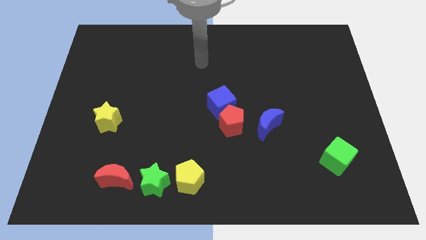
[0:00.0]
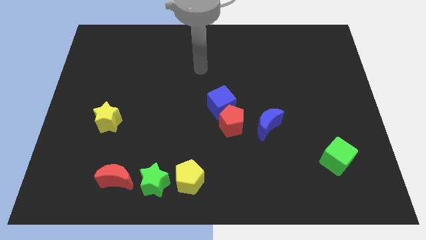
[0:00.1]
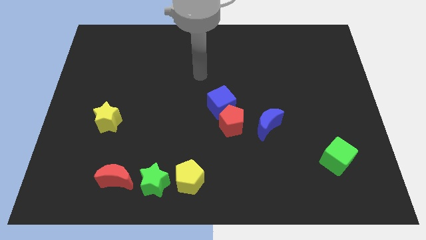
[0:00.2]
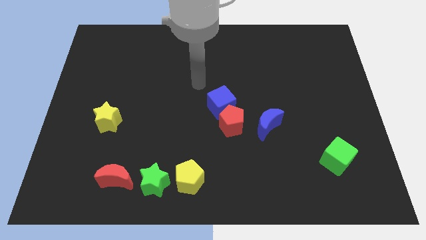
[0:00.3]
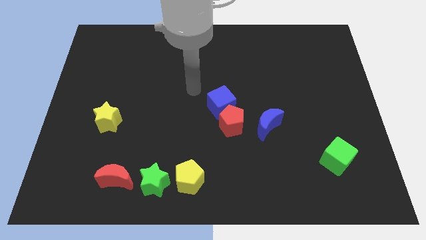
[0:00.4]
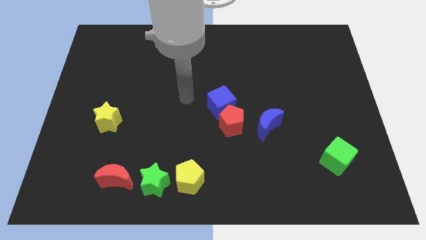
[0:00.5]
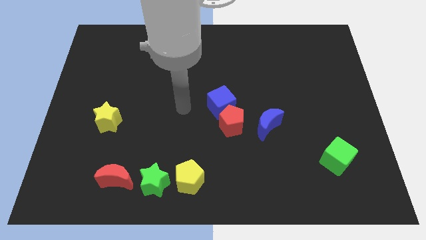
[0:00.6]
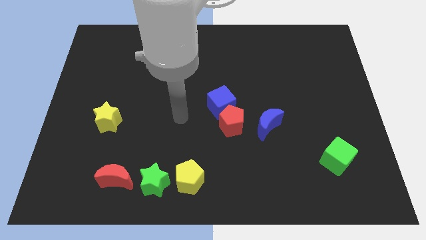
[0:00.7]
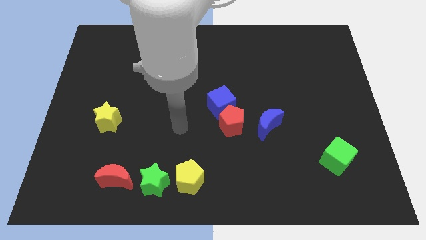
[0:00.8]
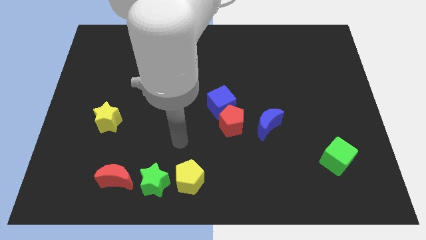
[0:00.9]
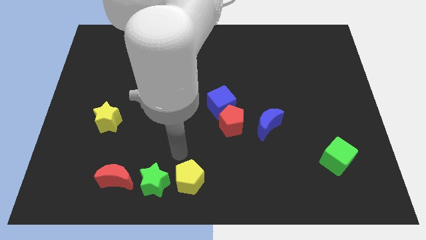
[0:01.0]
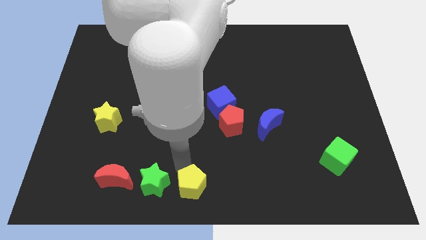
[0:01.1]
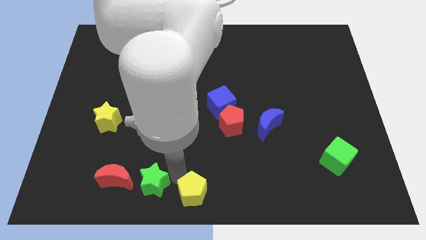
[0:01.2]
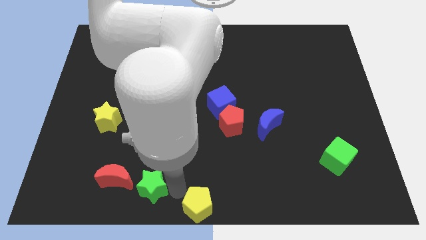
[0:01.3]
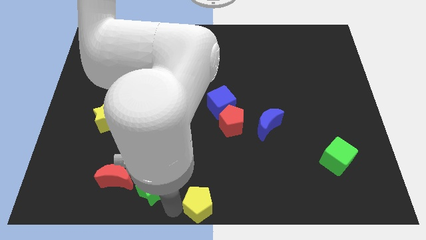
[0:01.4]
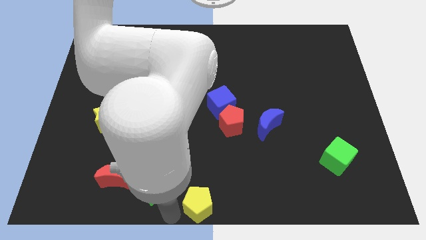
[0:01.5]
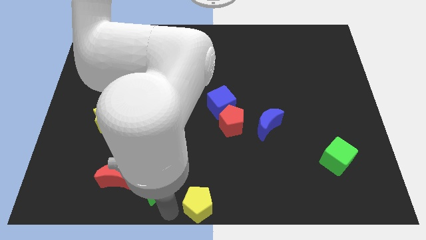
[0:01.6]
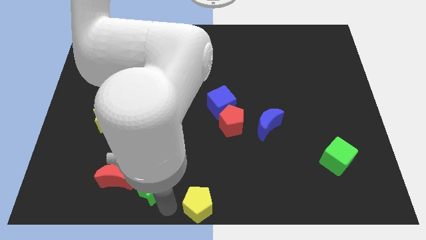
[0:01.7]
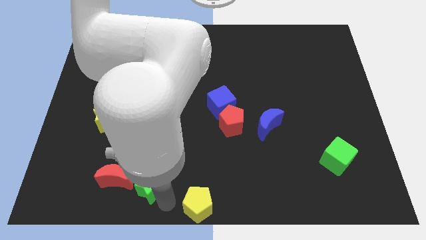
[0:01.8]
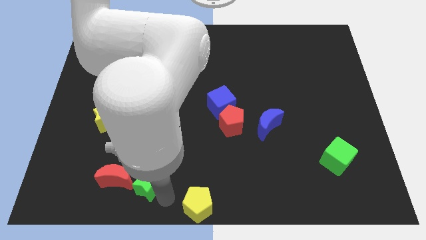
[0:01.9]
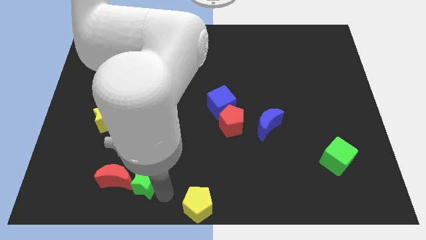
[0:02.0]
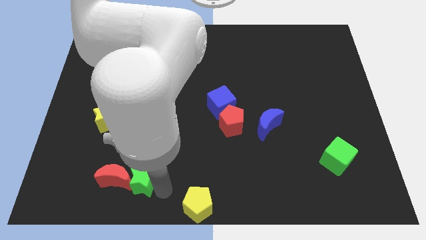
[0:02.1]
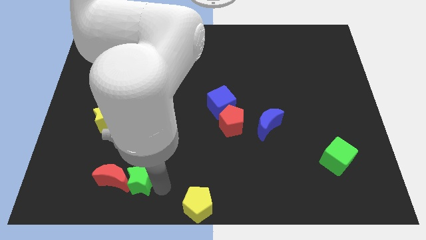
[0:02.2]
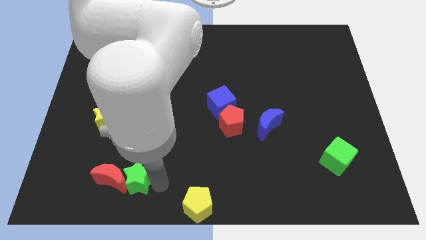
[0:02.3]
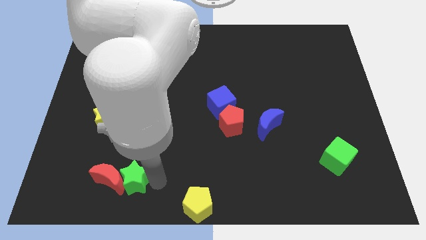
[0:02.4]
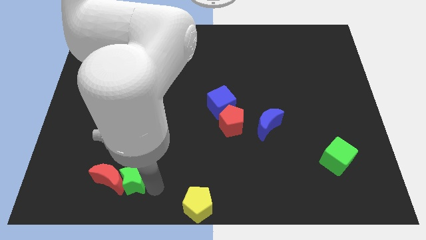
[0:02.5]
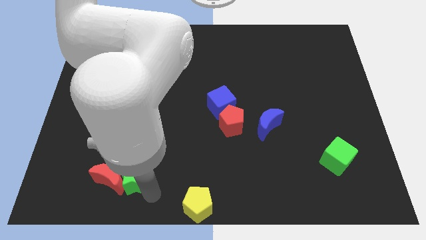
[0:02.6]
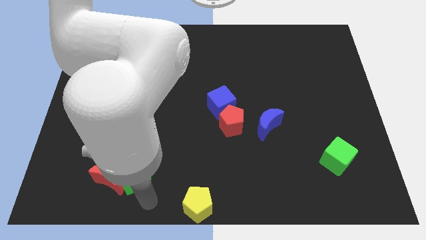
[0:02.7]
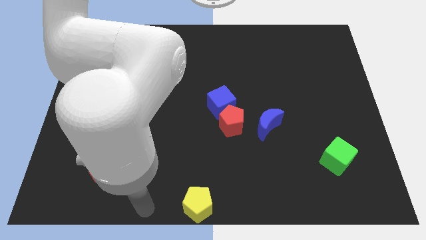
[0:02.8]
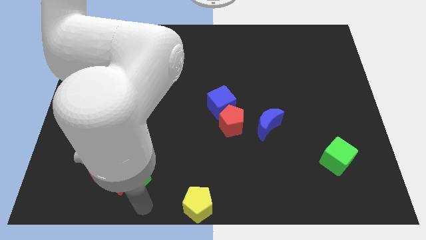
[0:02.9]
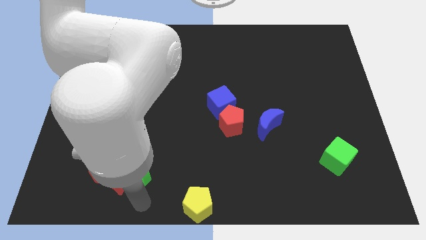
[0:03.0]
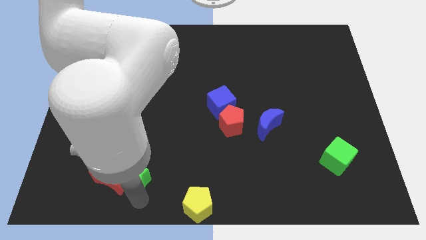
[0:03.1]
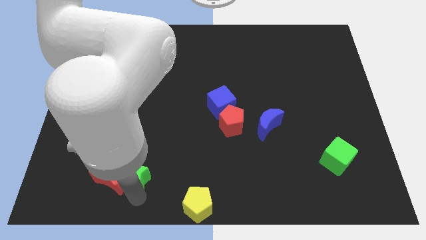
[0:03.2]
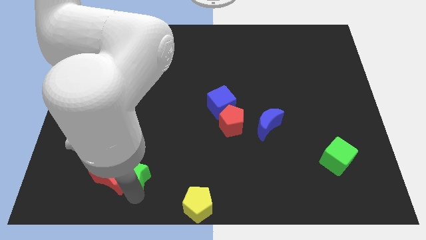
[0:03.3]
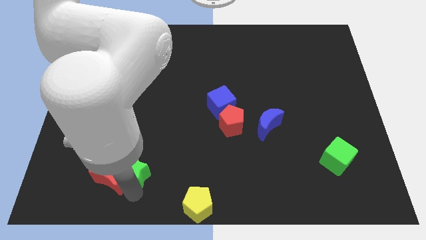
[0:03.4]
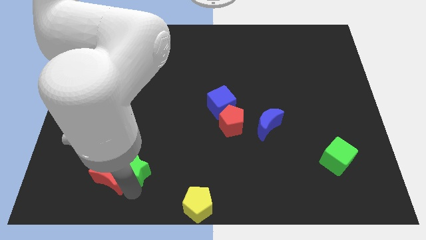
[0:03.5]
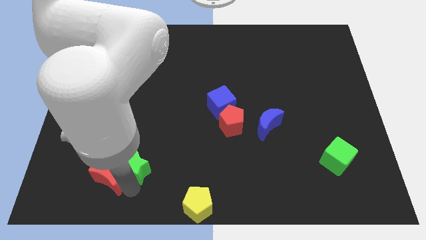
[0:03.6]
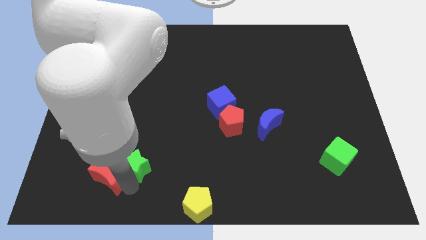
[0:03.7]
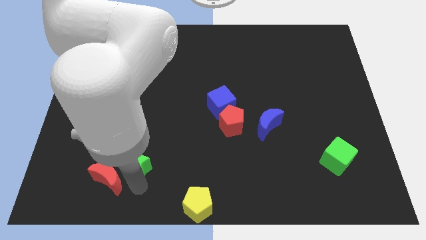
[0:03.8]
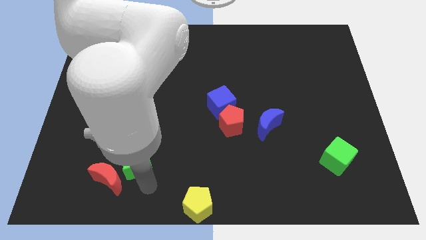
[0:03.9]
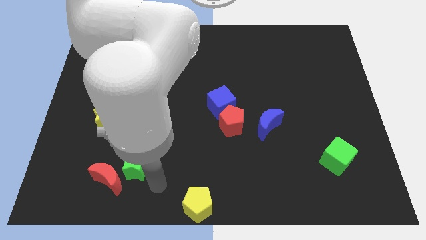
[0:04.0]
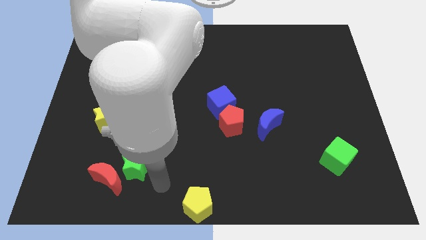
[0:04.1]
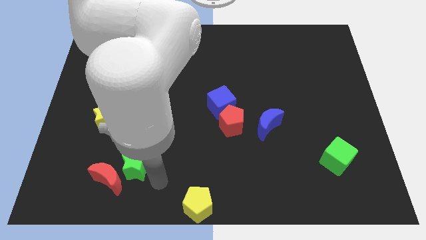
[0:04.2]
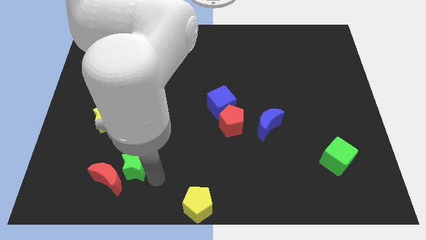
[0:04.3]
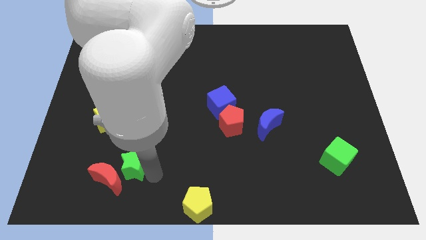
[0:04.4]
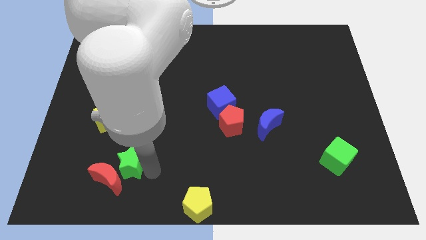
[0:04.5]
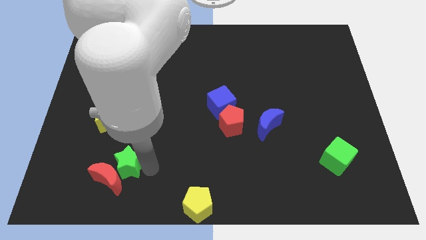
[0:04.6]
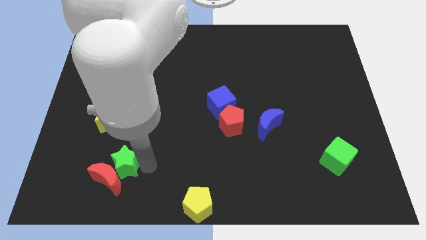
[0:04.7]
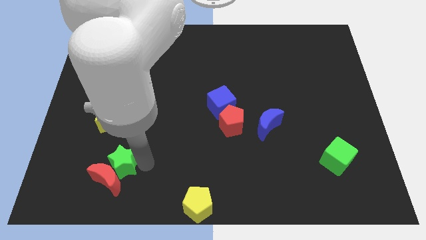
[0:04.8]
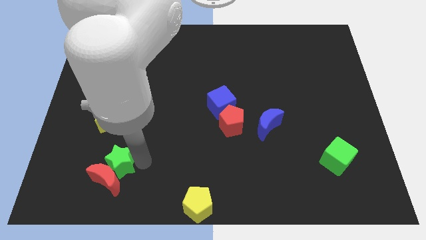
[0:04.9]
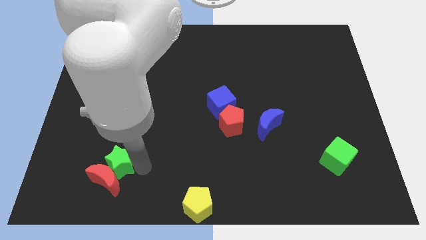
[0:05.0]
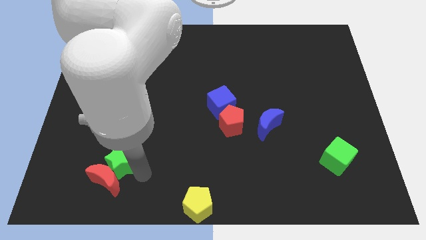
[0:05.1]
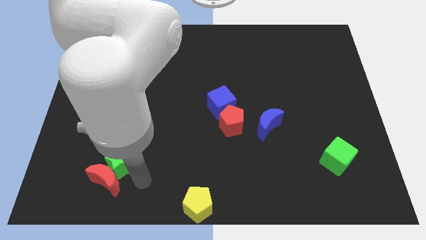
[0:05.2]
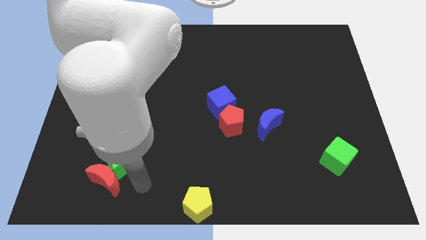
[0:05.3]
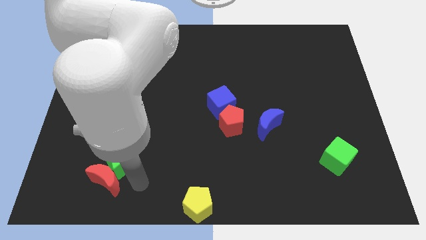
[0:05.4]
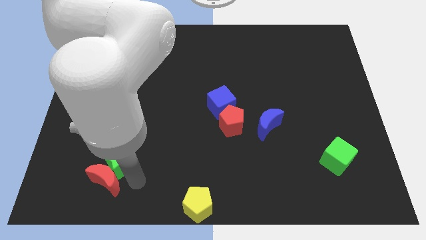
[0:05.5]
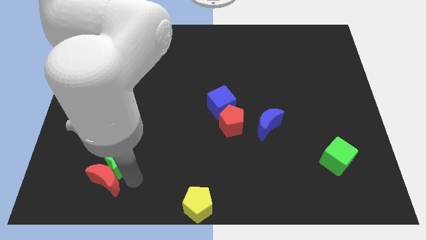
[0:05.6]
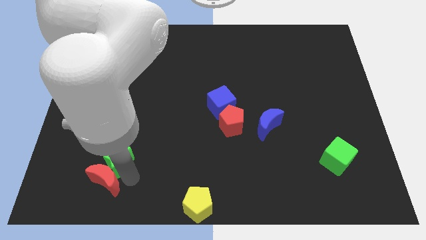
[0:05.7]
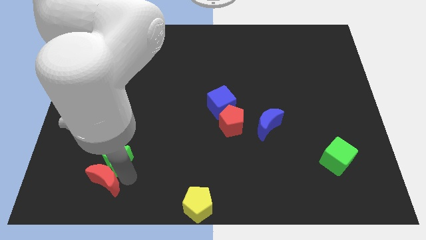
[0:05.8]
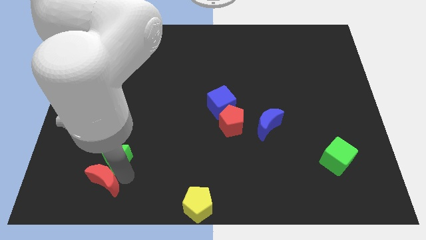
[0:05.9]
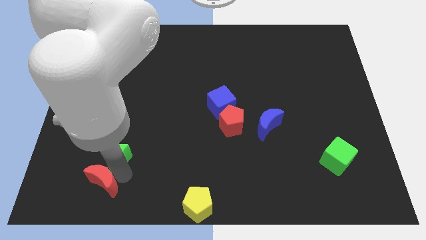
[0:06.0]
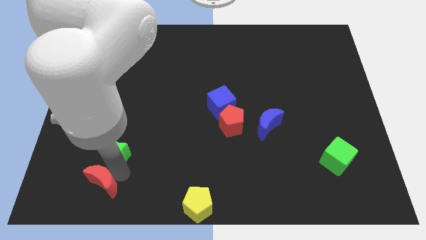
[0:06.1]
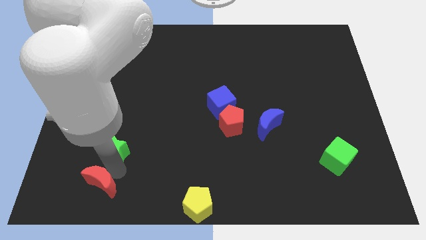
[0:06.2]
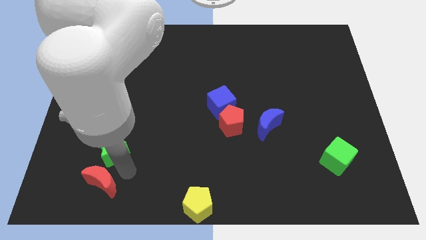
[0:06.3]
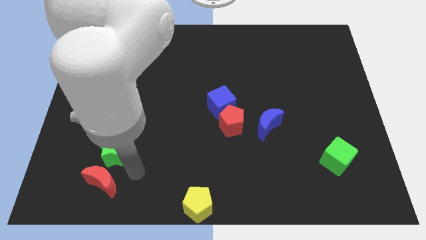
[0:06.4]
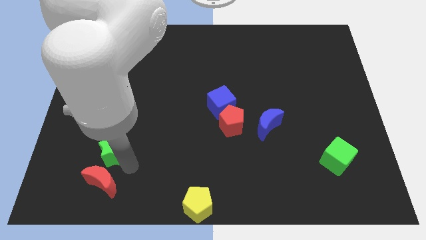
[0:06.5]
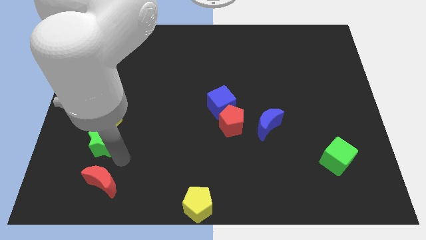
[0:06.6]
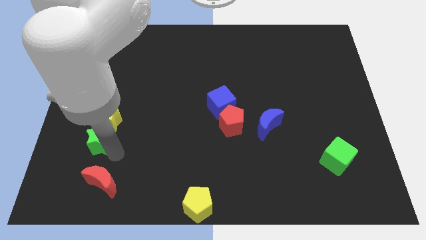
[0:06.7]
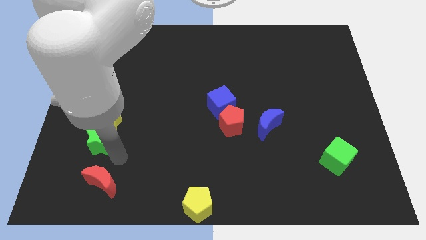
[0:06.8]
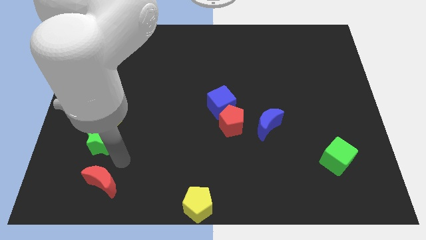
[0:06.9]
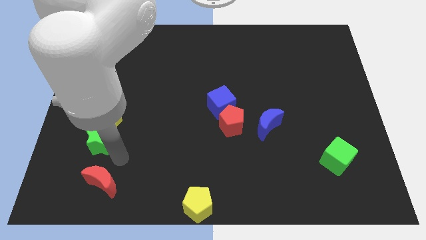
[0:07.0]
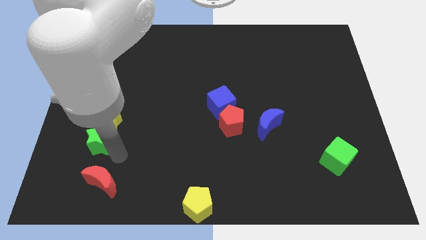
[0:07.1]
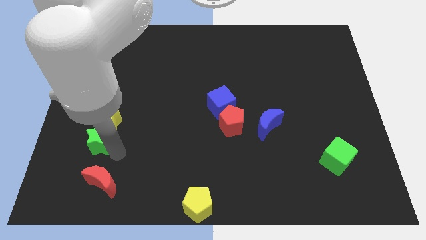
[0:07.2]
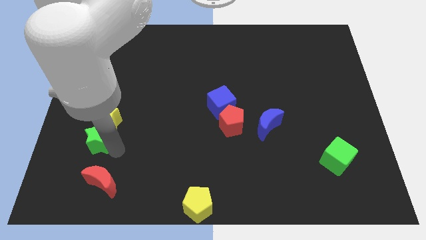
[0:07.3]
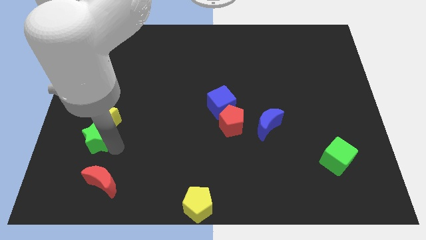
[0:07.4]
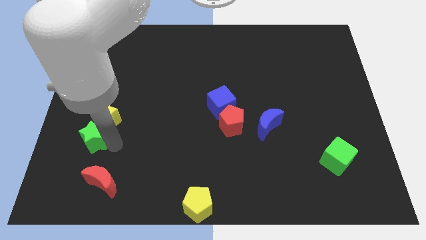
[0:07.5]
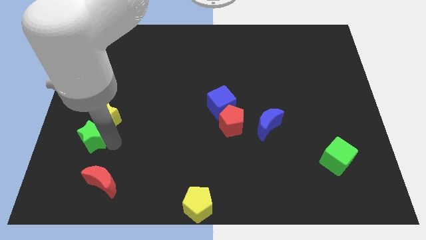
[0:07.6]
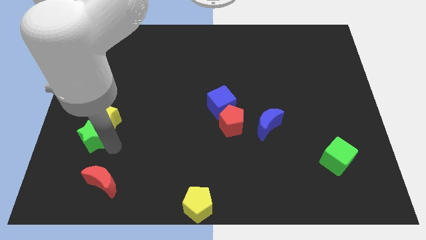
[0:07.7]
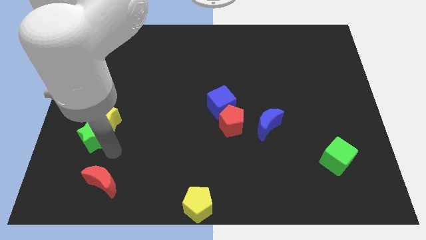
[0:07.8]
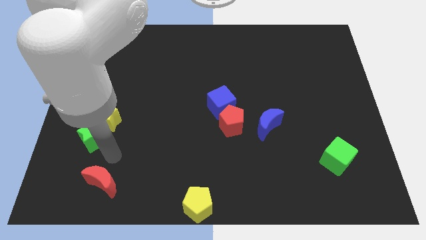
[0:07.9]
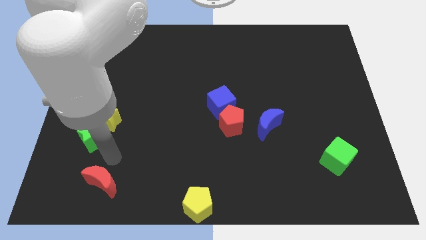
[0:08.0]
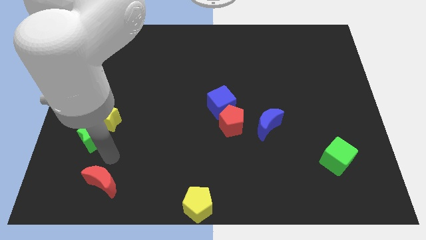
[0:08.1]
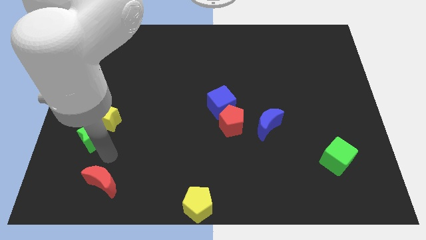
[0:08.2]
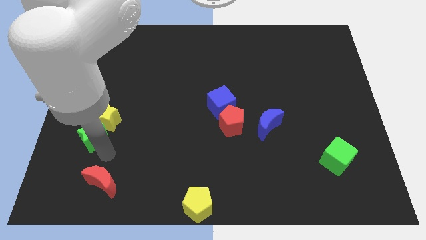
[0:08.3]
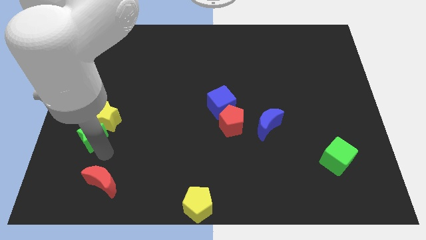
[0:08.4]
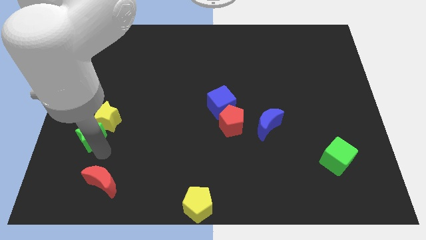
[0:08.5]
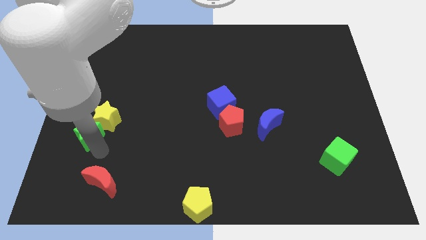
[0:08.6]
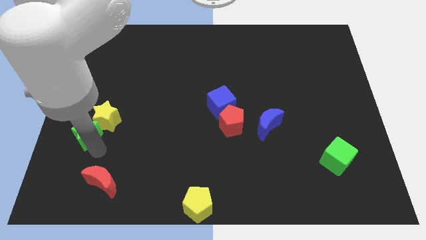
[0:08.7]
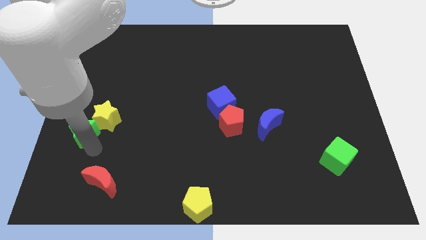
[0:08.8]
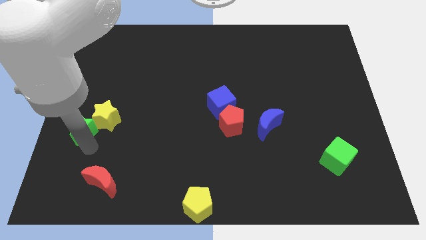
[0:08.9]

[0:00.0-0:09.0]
slide the green star to the left side of the board
